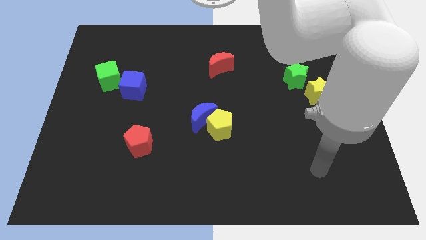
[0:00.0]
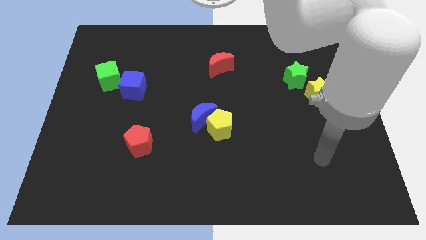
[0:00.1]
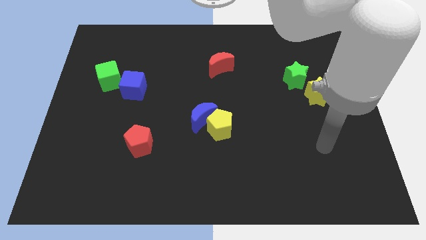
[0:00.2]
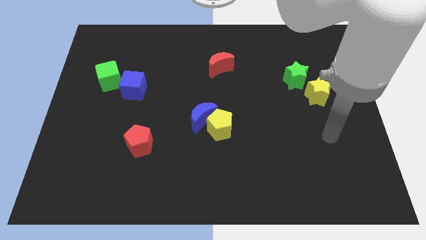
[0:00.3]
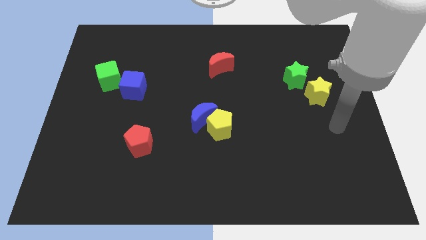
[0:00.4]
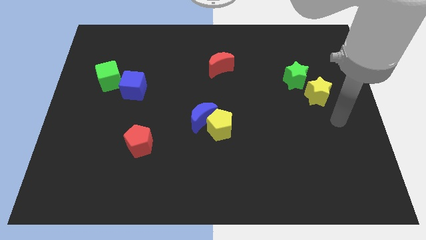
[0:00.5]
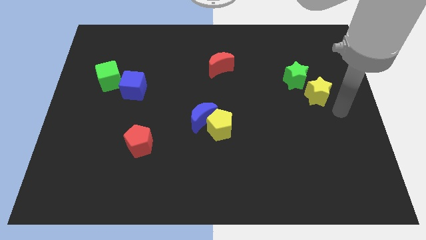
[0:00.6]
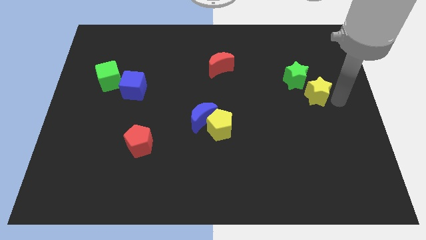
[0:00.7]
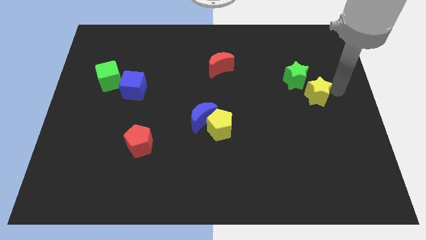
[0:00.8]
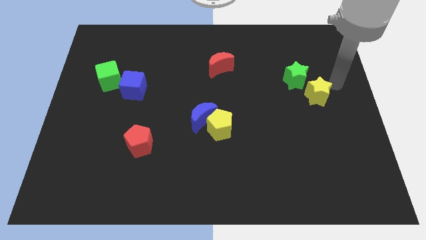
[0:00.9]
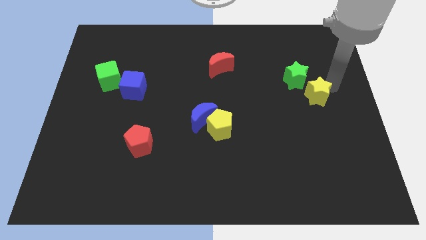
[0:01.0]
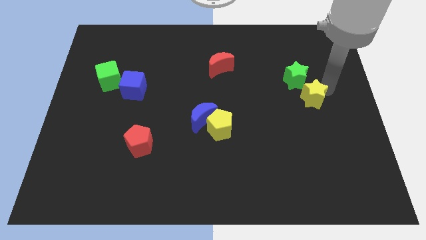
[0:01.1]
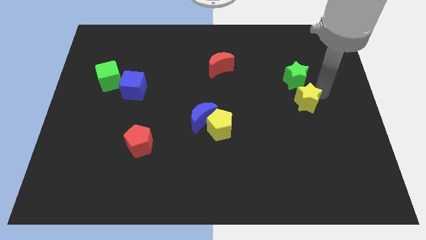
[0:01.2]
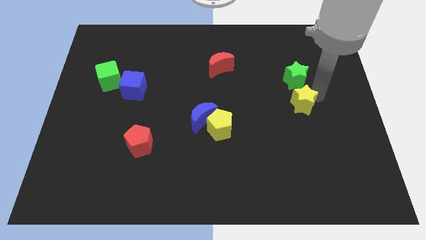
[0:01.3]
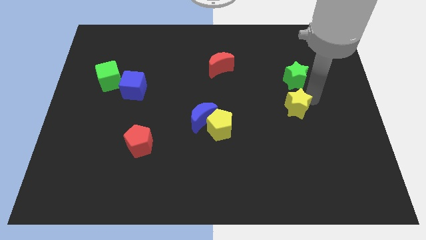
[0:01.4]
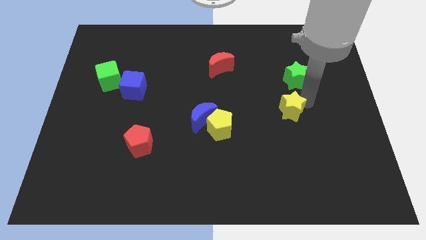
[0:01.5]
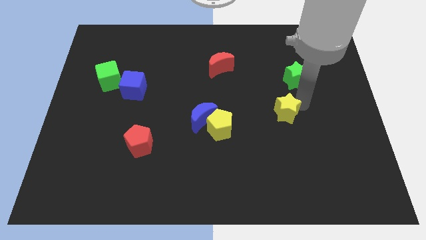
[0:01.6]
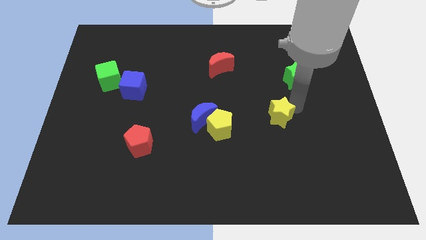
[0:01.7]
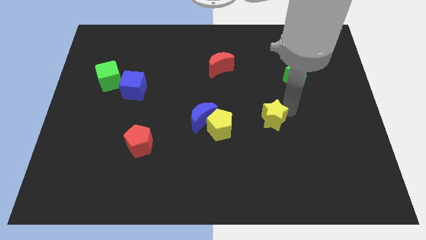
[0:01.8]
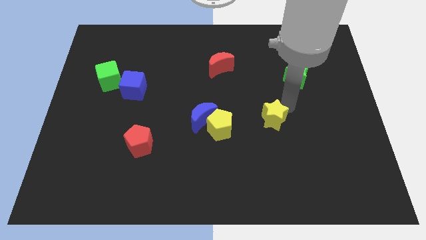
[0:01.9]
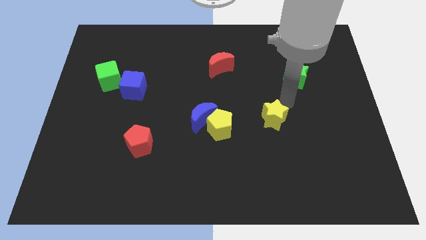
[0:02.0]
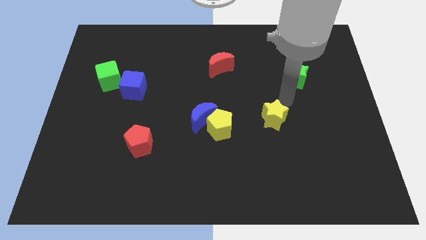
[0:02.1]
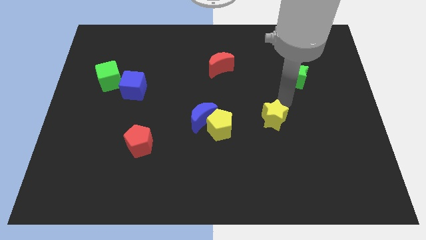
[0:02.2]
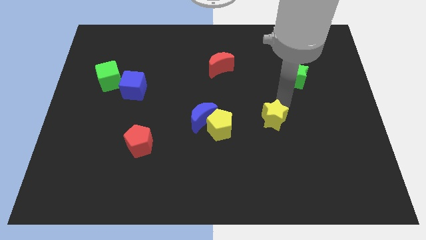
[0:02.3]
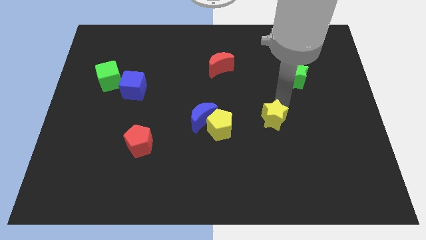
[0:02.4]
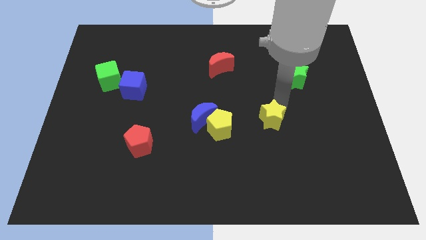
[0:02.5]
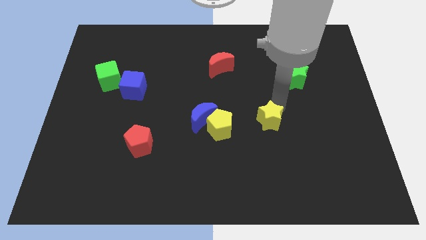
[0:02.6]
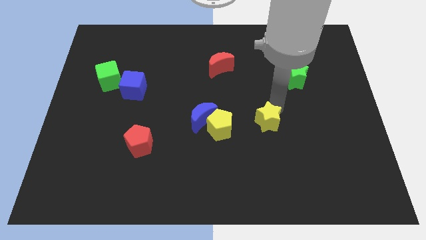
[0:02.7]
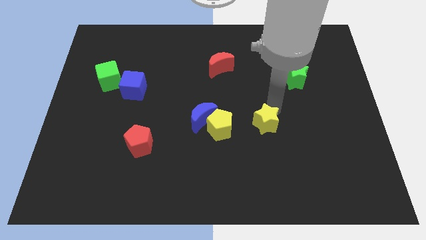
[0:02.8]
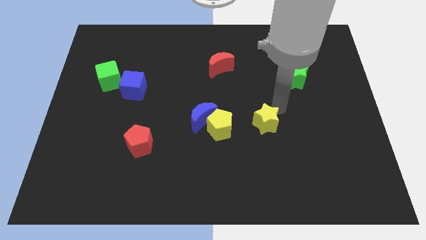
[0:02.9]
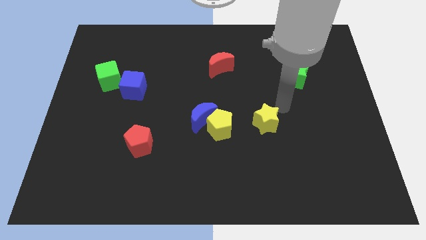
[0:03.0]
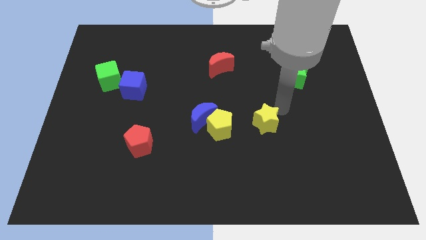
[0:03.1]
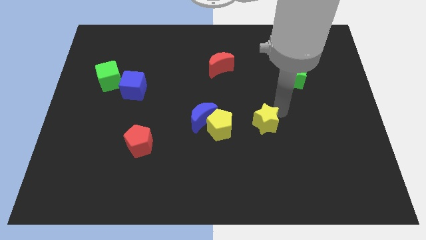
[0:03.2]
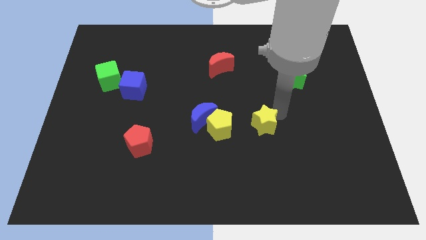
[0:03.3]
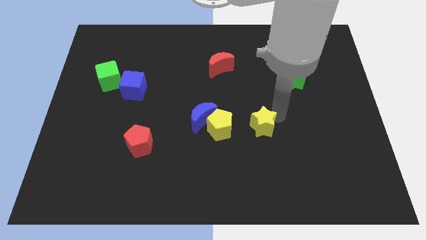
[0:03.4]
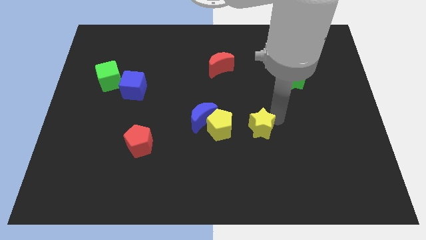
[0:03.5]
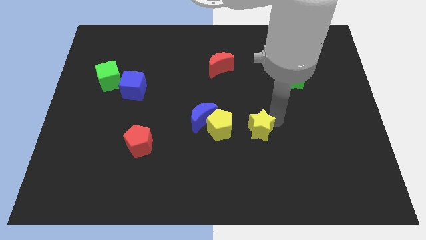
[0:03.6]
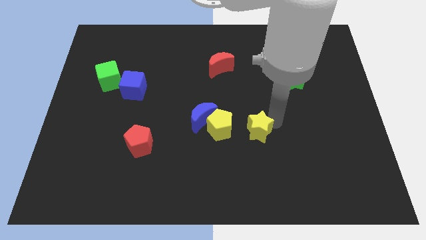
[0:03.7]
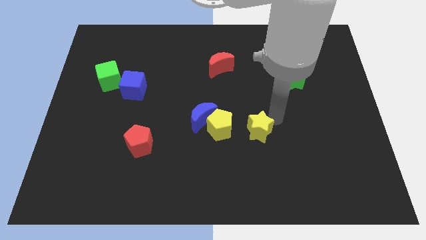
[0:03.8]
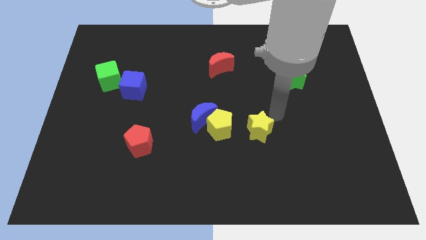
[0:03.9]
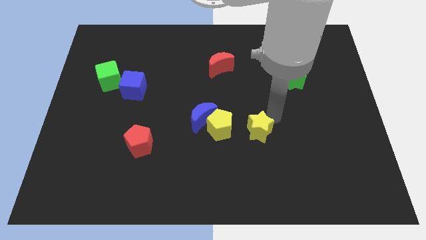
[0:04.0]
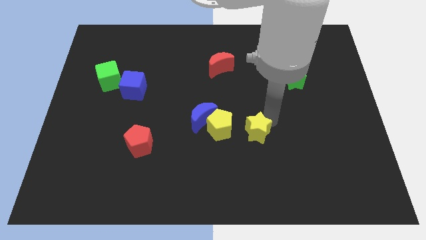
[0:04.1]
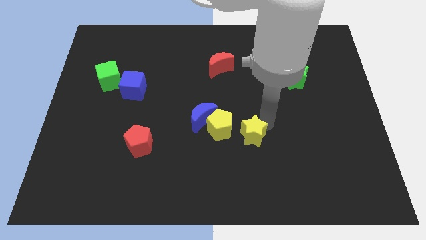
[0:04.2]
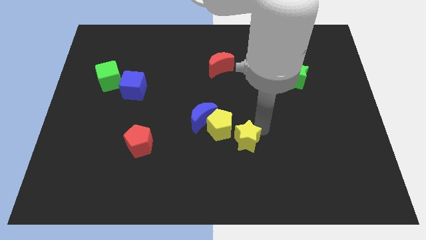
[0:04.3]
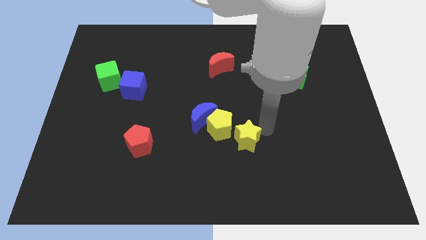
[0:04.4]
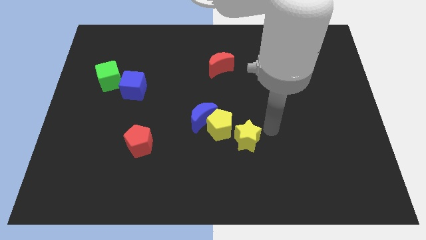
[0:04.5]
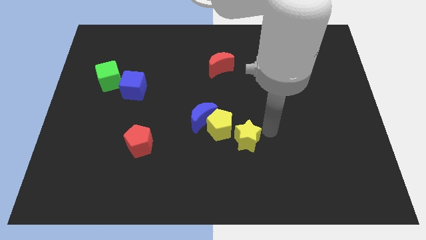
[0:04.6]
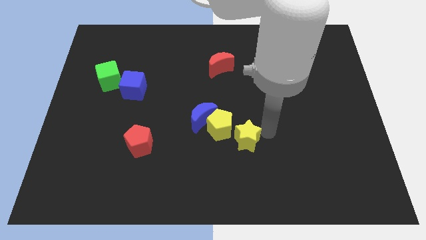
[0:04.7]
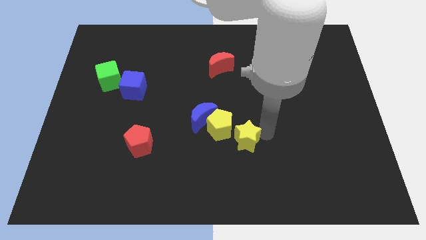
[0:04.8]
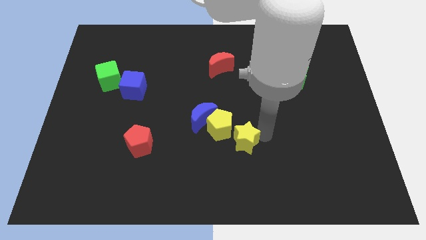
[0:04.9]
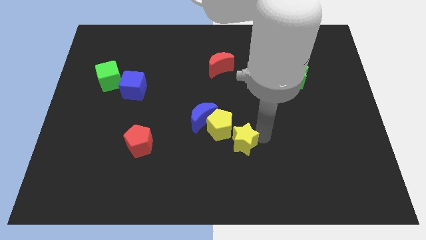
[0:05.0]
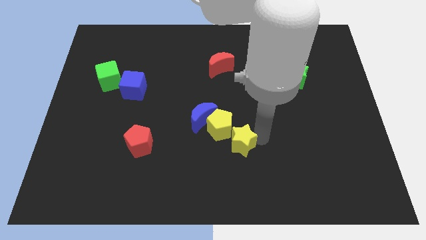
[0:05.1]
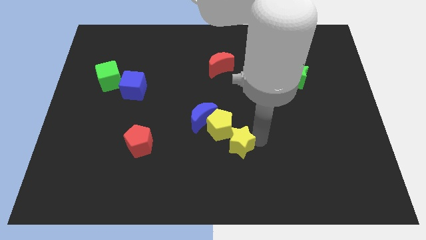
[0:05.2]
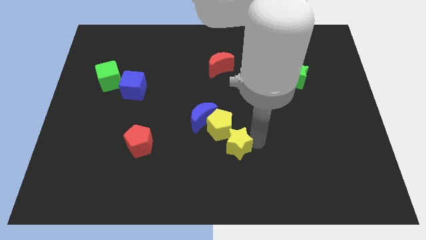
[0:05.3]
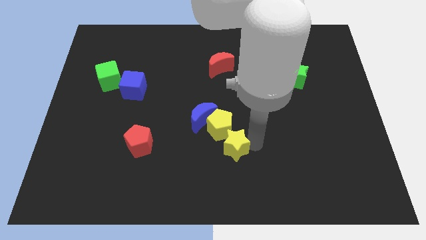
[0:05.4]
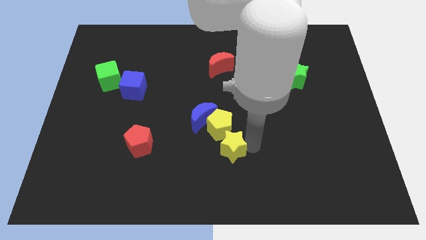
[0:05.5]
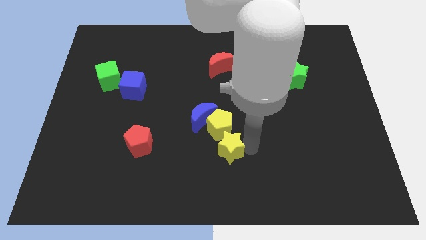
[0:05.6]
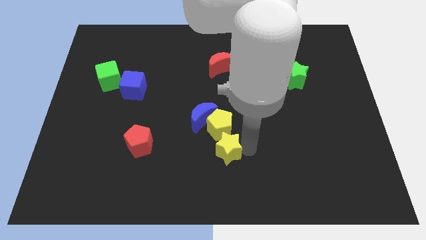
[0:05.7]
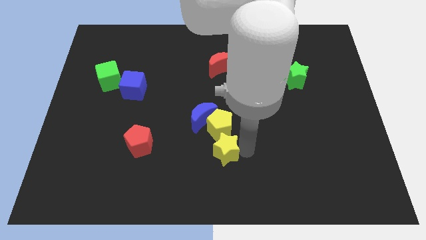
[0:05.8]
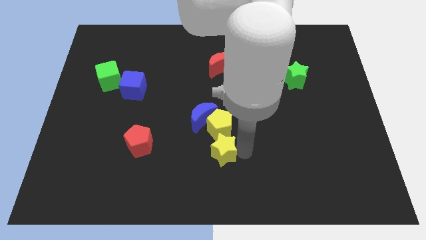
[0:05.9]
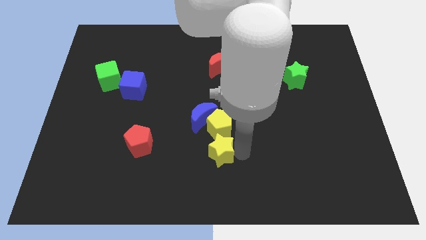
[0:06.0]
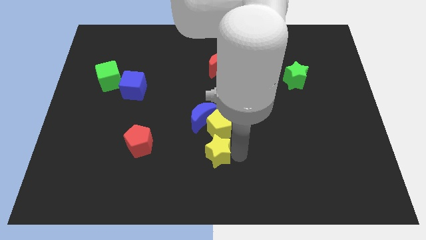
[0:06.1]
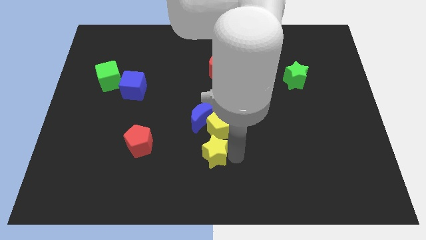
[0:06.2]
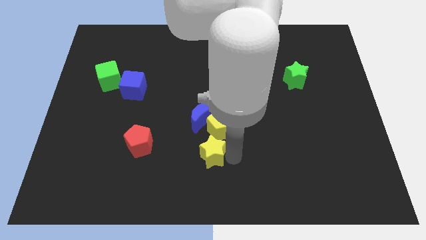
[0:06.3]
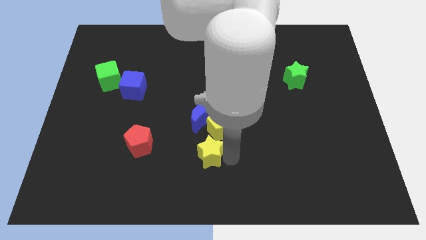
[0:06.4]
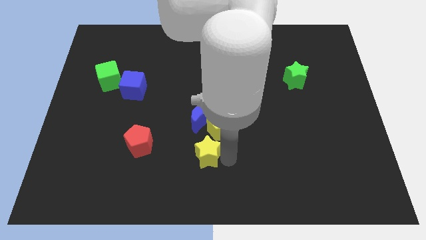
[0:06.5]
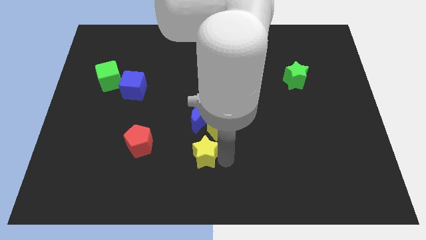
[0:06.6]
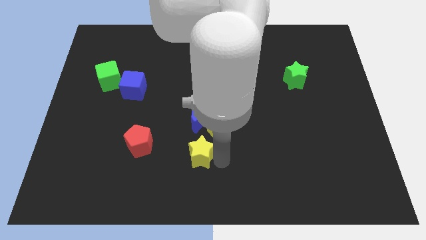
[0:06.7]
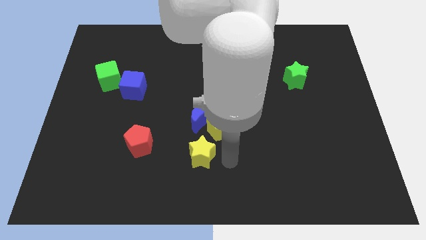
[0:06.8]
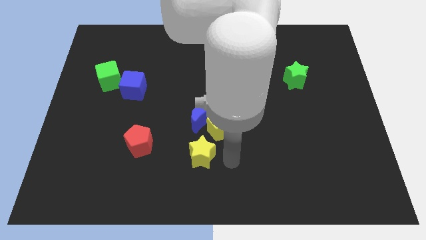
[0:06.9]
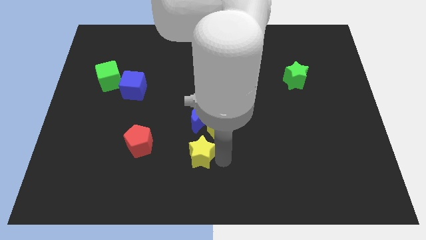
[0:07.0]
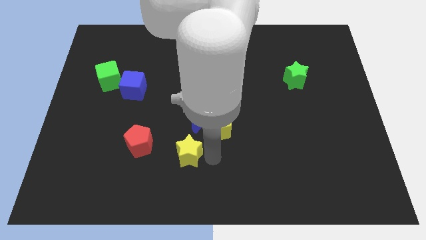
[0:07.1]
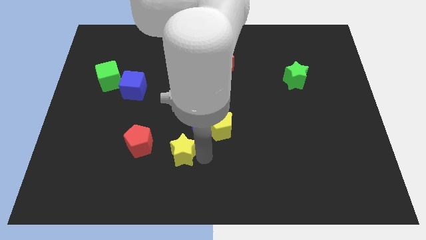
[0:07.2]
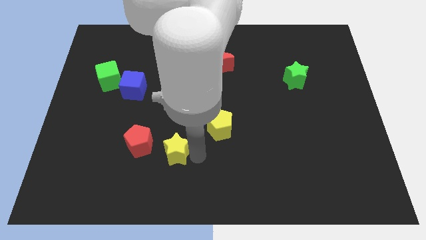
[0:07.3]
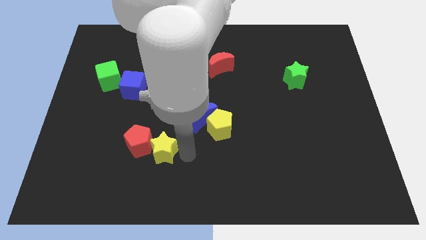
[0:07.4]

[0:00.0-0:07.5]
put the yellow star next to the red pentagon
